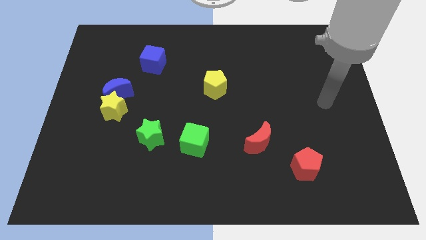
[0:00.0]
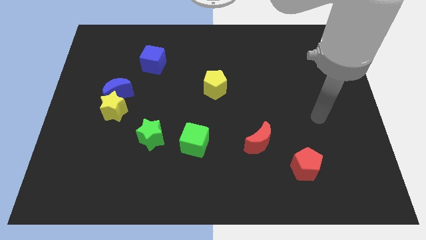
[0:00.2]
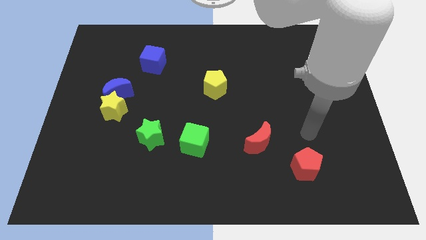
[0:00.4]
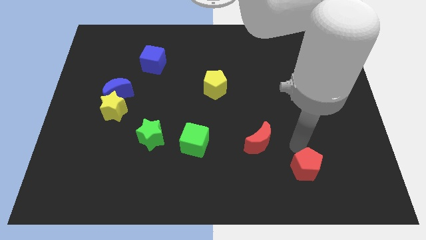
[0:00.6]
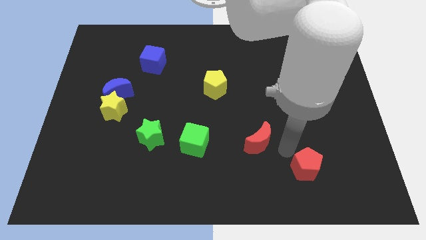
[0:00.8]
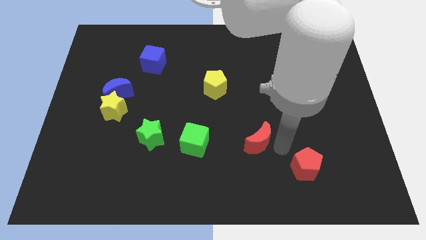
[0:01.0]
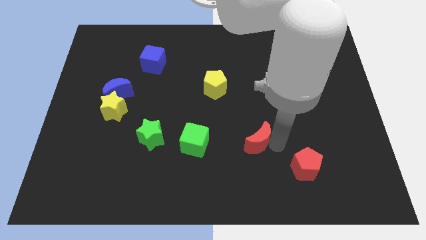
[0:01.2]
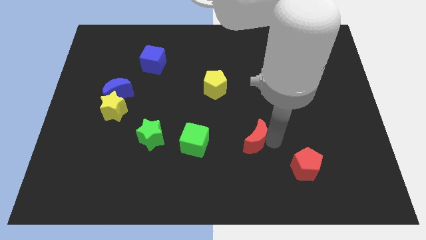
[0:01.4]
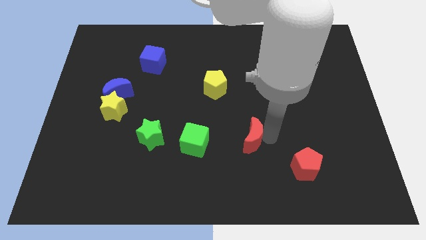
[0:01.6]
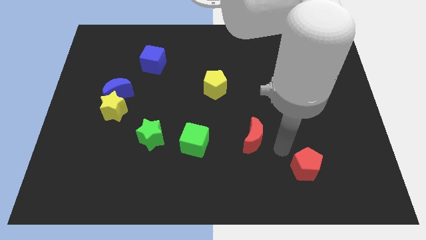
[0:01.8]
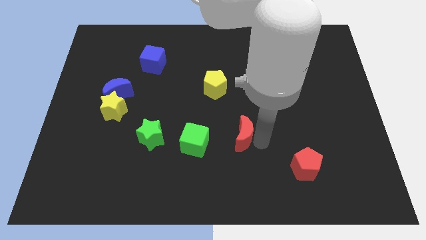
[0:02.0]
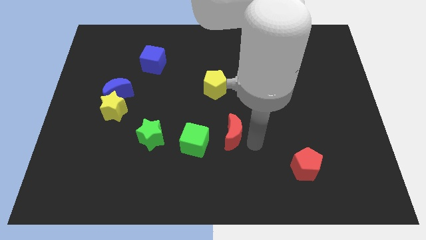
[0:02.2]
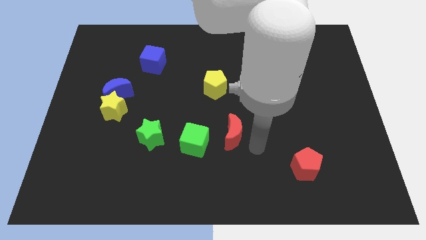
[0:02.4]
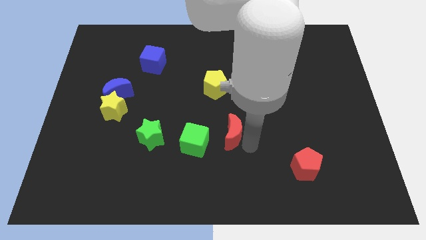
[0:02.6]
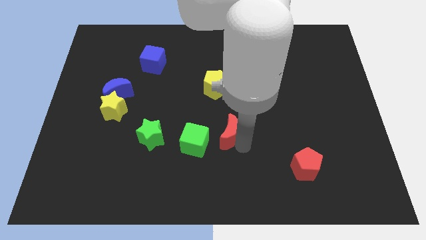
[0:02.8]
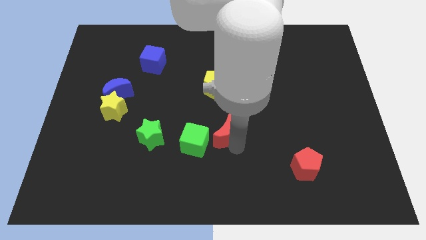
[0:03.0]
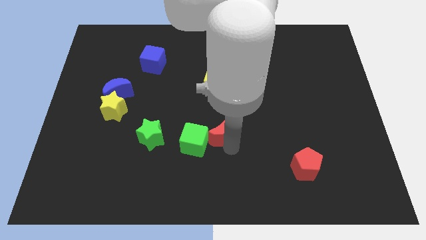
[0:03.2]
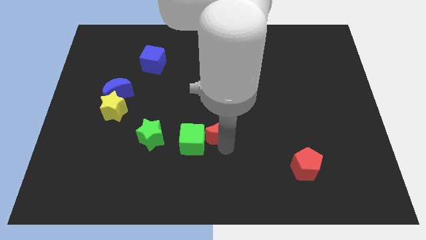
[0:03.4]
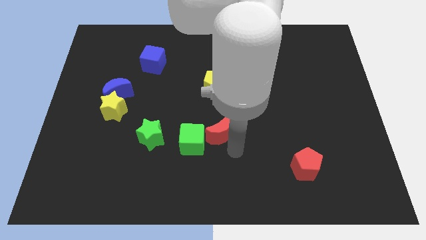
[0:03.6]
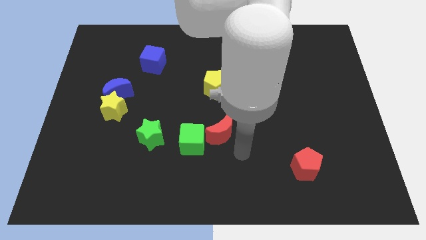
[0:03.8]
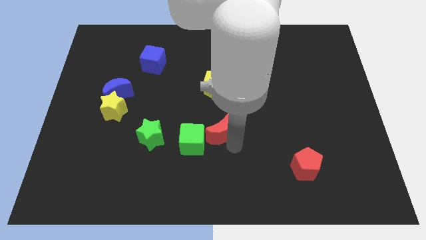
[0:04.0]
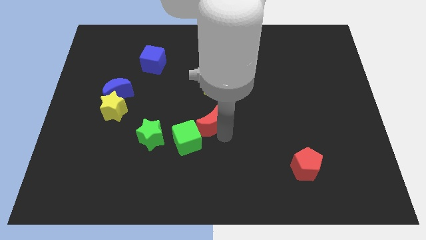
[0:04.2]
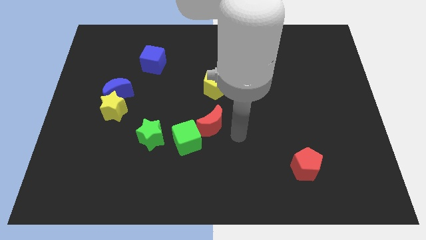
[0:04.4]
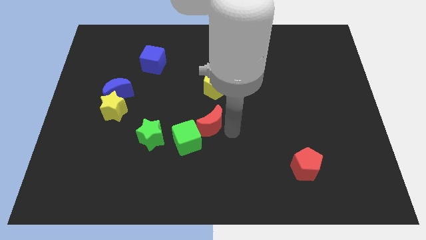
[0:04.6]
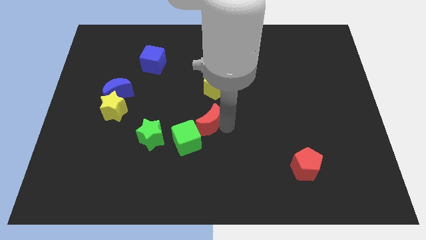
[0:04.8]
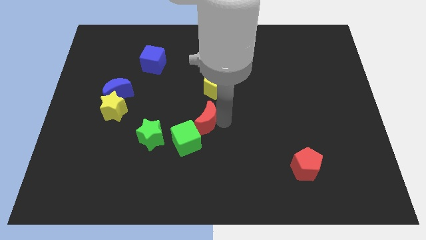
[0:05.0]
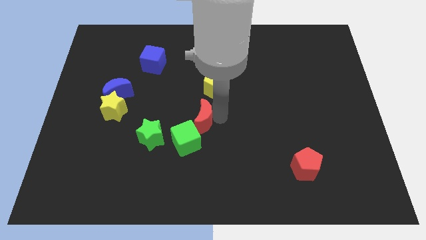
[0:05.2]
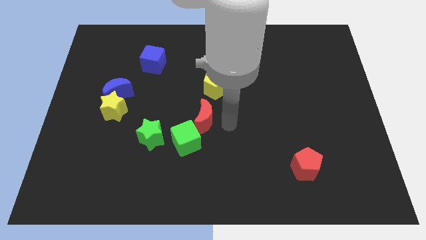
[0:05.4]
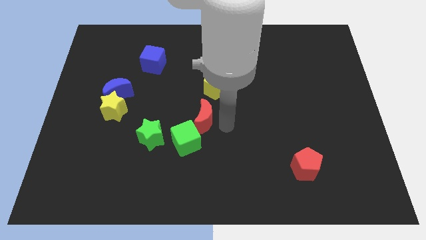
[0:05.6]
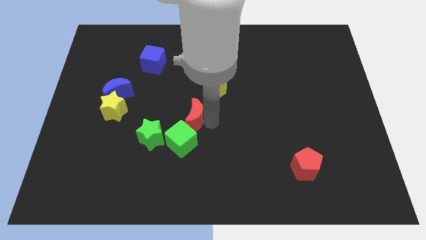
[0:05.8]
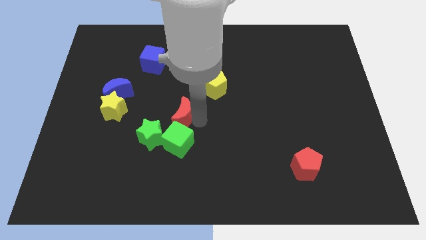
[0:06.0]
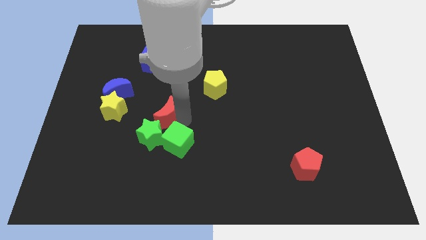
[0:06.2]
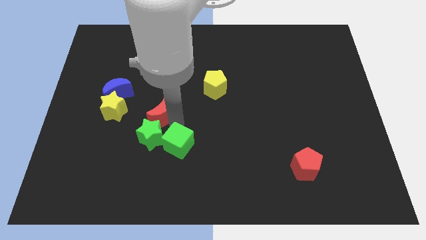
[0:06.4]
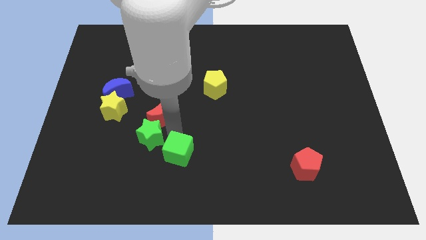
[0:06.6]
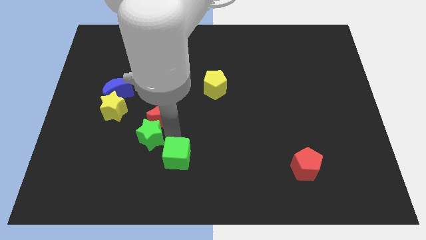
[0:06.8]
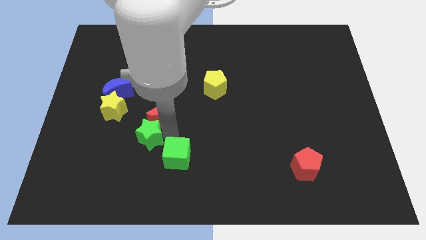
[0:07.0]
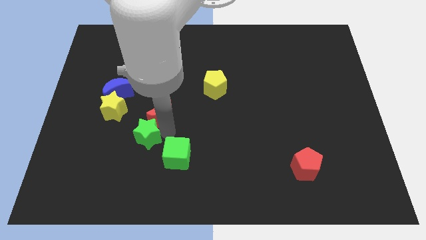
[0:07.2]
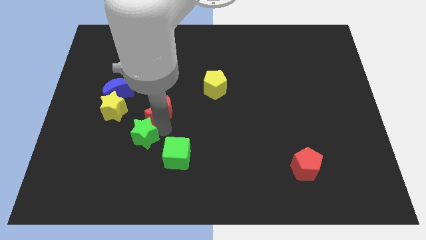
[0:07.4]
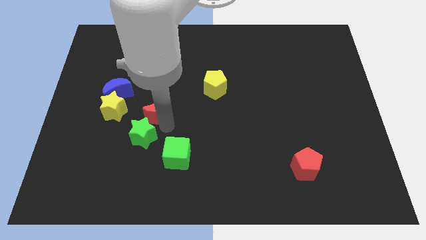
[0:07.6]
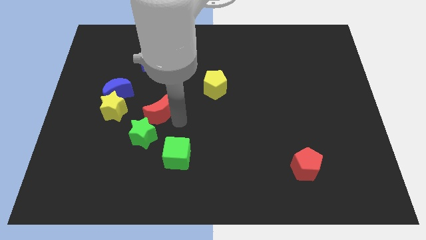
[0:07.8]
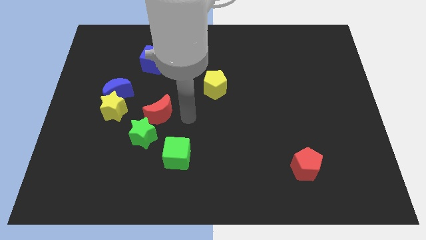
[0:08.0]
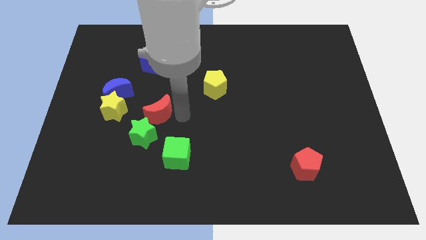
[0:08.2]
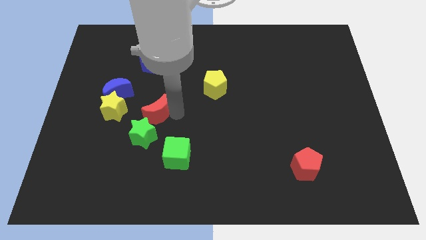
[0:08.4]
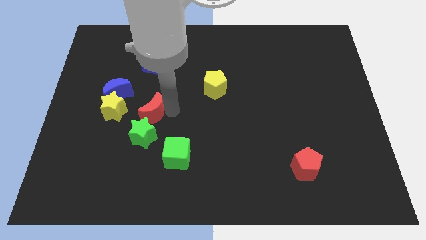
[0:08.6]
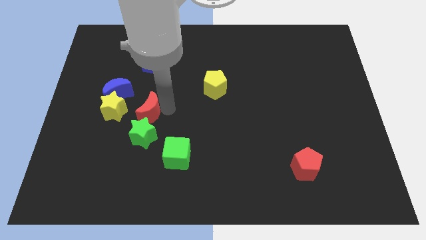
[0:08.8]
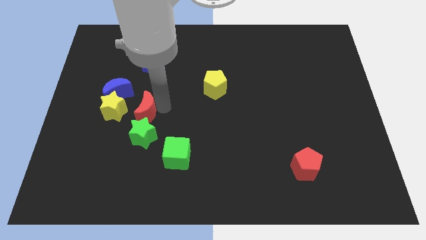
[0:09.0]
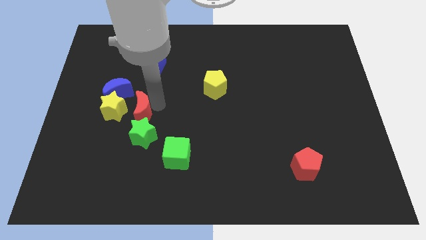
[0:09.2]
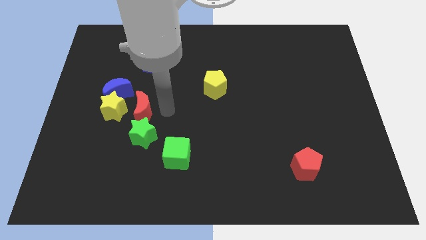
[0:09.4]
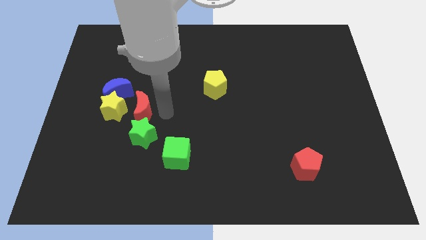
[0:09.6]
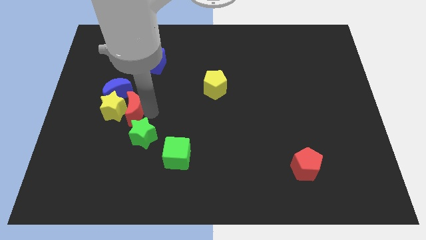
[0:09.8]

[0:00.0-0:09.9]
slide the red moon next to the yellow star

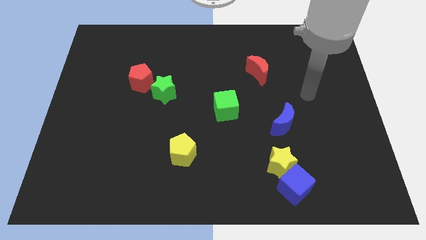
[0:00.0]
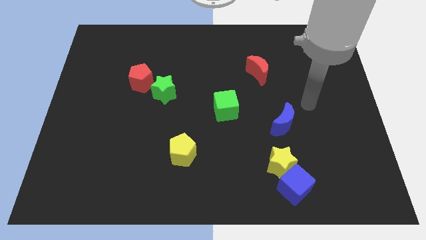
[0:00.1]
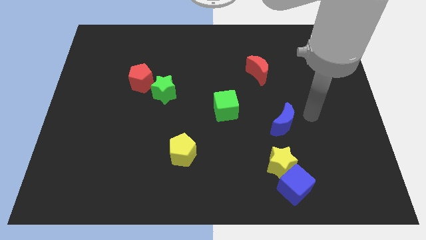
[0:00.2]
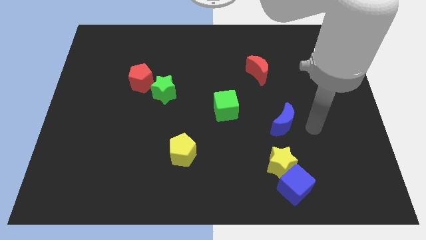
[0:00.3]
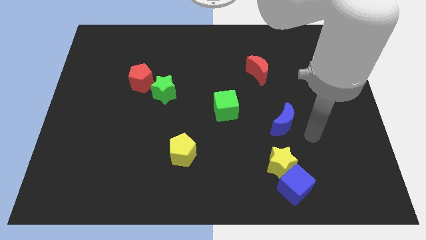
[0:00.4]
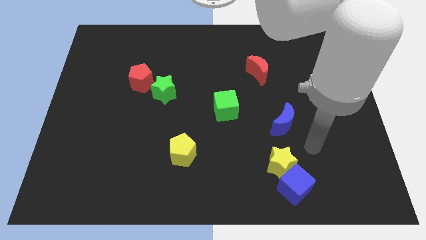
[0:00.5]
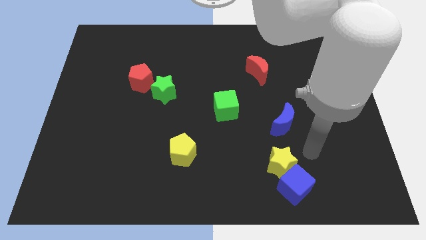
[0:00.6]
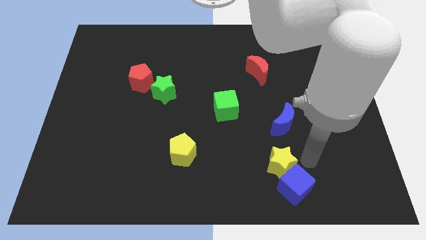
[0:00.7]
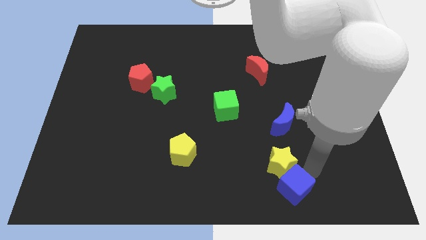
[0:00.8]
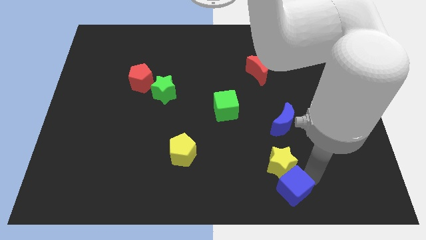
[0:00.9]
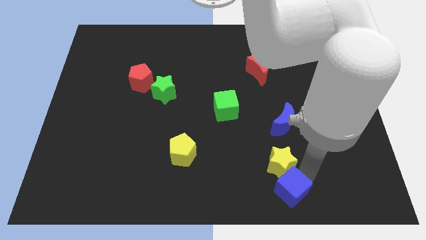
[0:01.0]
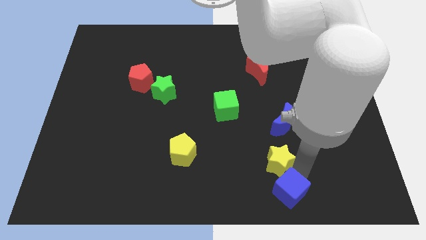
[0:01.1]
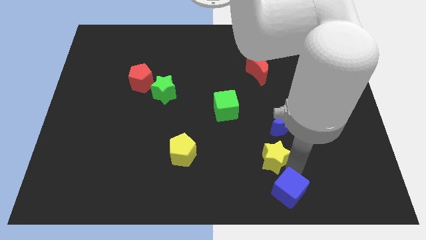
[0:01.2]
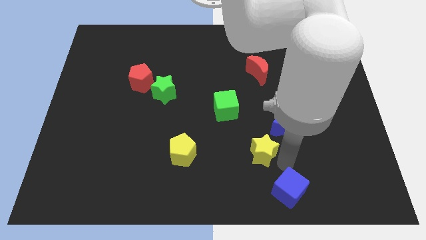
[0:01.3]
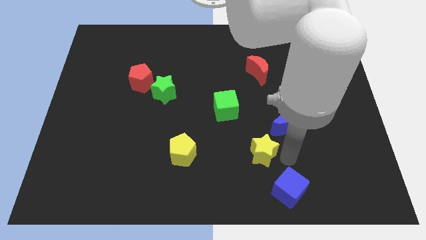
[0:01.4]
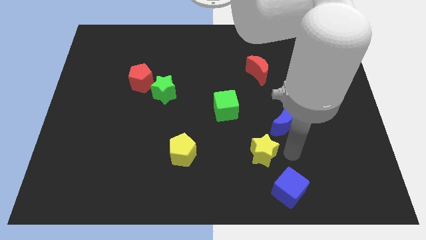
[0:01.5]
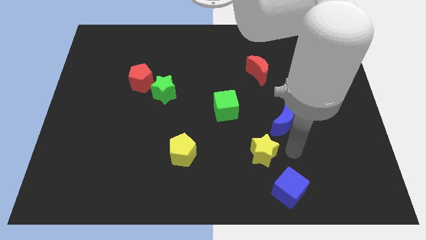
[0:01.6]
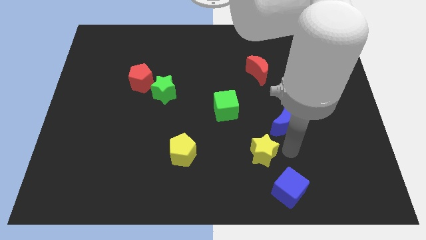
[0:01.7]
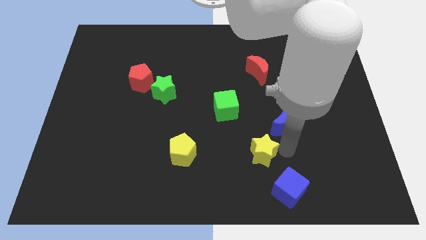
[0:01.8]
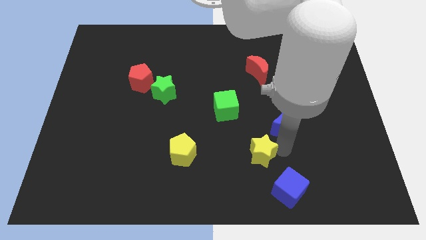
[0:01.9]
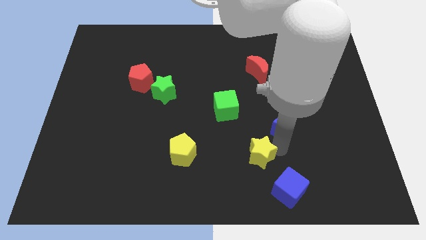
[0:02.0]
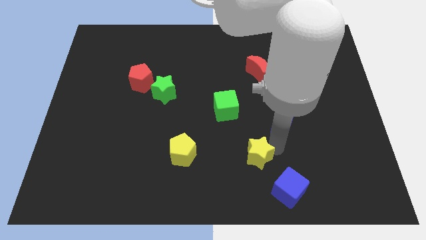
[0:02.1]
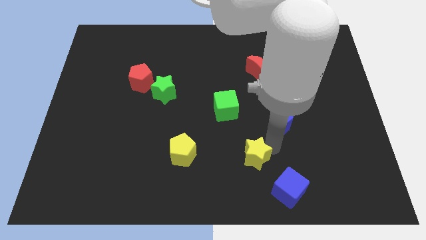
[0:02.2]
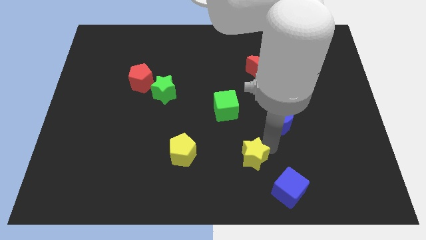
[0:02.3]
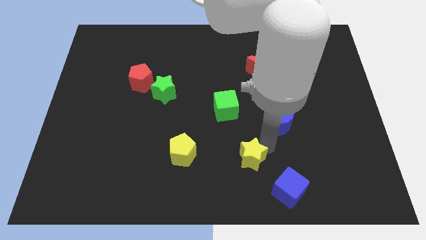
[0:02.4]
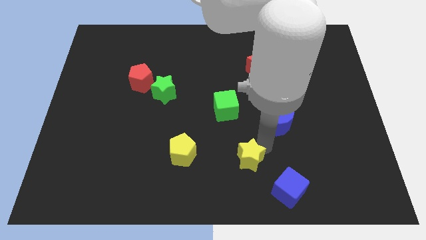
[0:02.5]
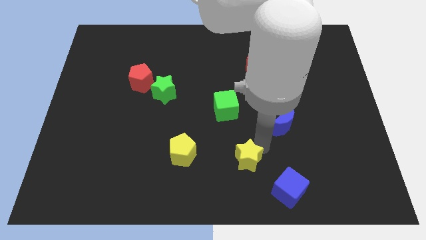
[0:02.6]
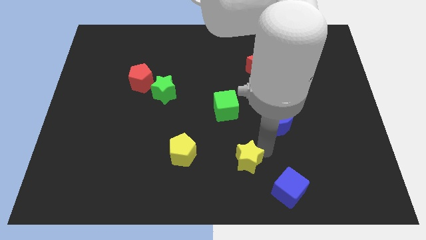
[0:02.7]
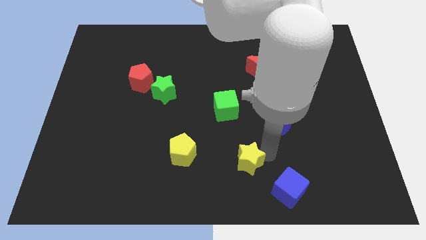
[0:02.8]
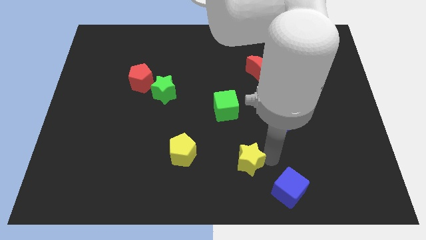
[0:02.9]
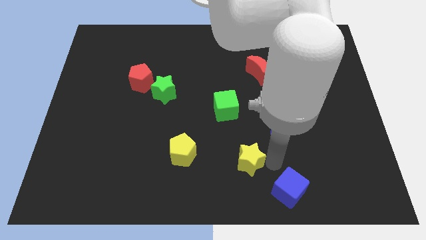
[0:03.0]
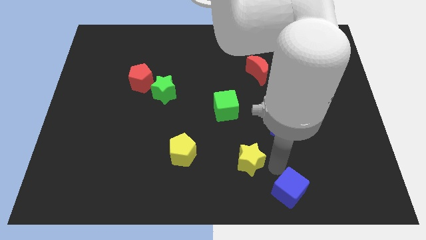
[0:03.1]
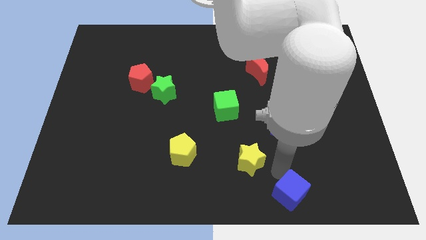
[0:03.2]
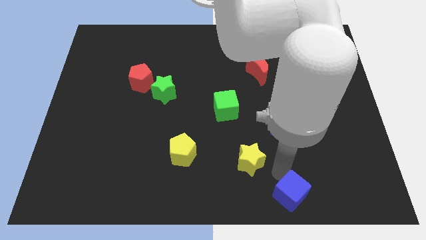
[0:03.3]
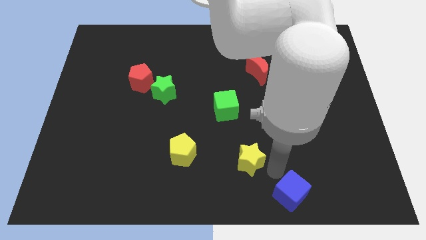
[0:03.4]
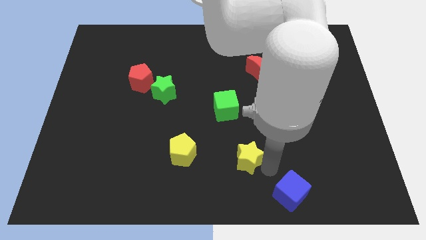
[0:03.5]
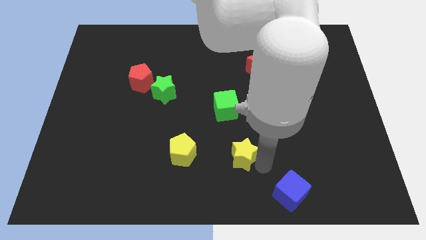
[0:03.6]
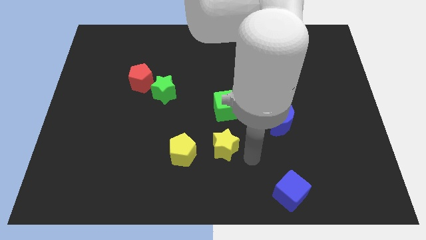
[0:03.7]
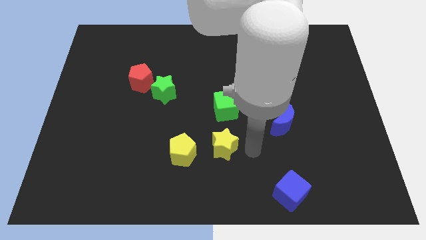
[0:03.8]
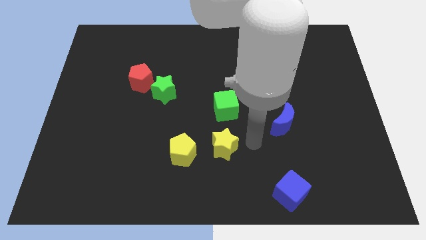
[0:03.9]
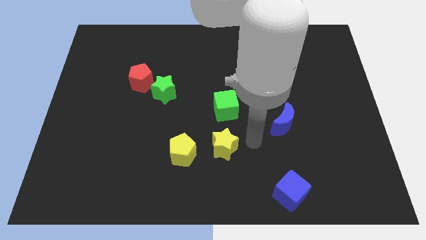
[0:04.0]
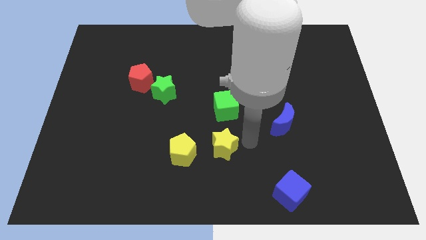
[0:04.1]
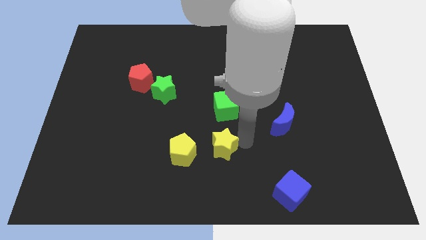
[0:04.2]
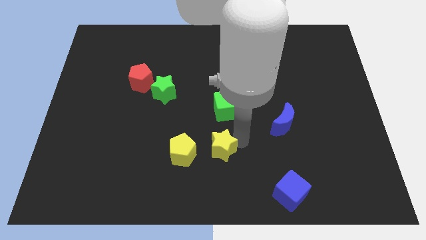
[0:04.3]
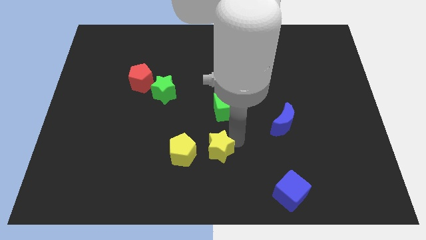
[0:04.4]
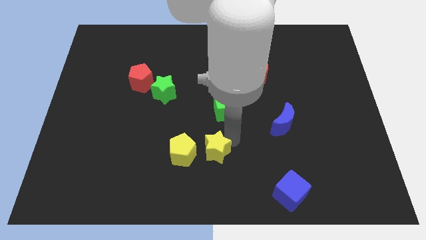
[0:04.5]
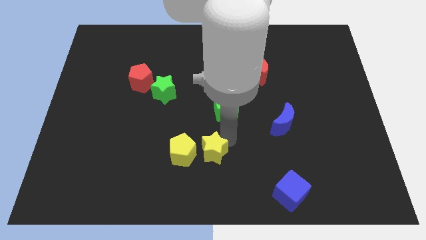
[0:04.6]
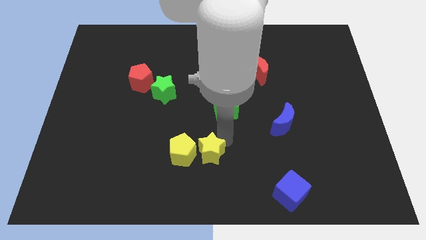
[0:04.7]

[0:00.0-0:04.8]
push the yellow star close to the yellow pentagon
